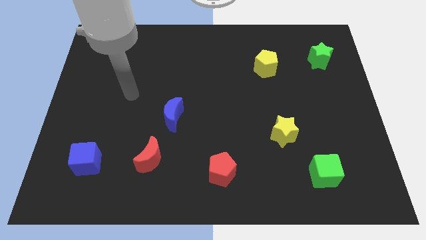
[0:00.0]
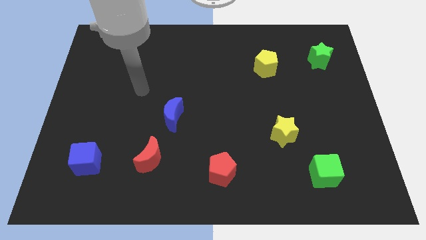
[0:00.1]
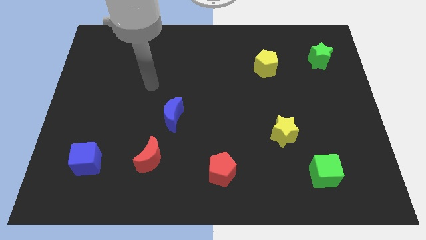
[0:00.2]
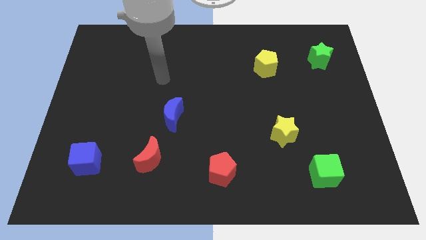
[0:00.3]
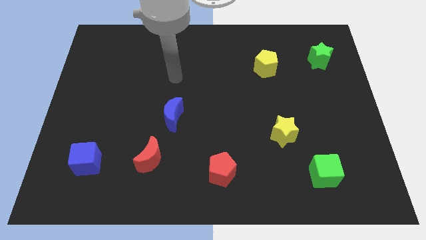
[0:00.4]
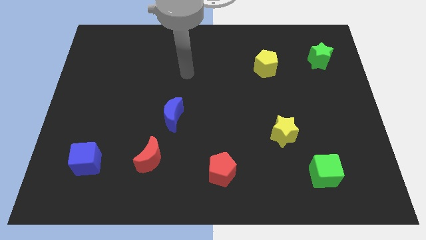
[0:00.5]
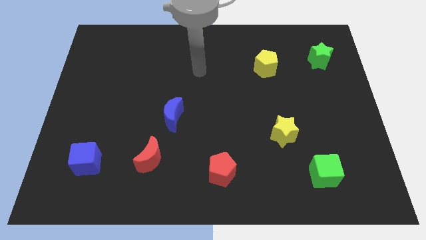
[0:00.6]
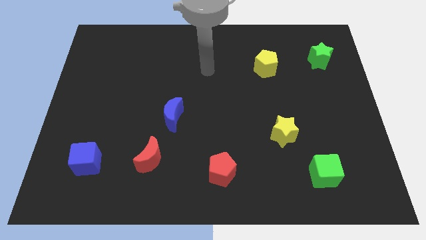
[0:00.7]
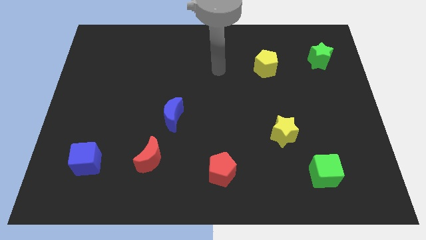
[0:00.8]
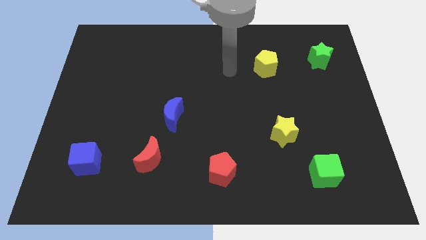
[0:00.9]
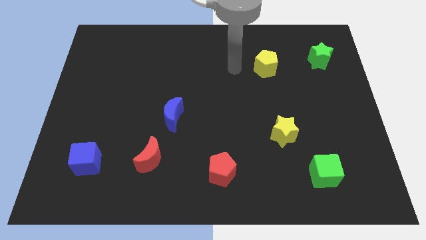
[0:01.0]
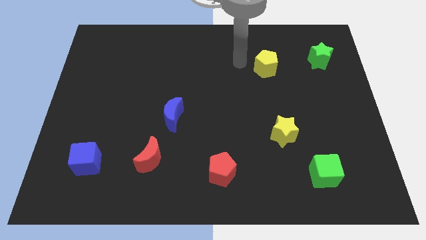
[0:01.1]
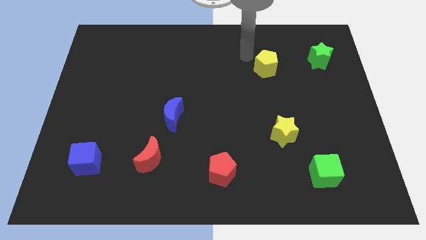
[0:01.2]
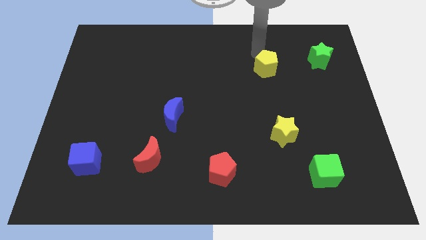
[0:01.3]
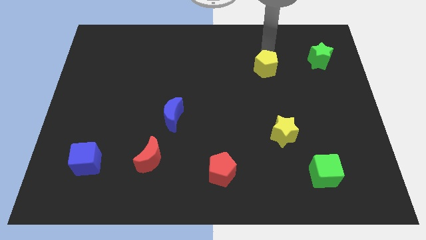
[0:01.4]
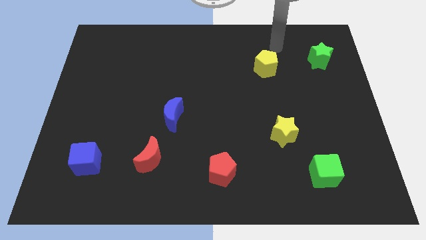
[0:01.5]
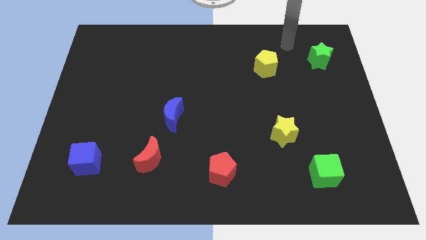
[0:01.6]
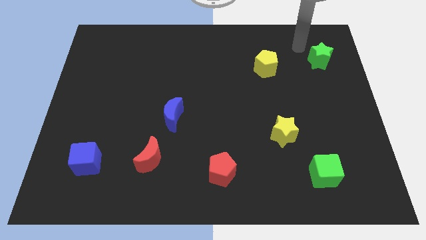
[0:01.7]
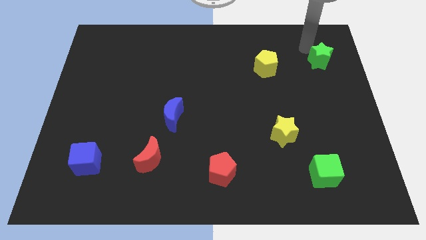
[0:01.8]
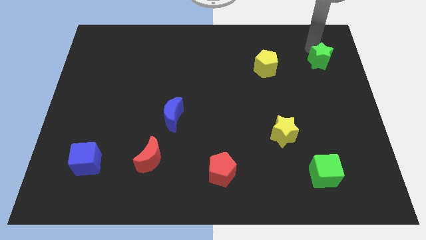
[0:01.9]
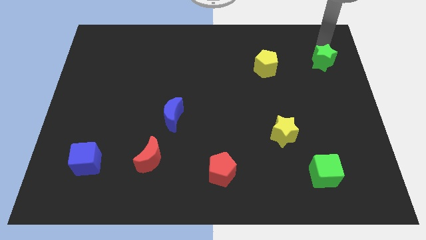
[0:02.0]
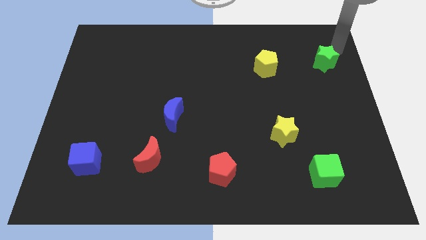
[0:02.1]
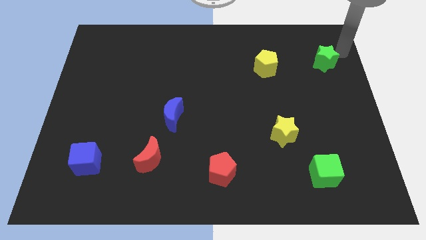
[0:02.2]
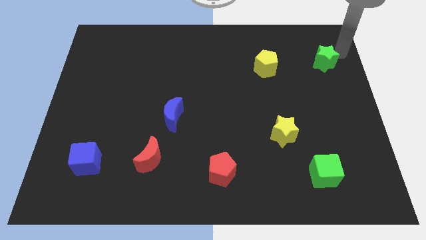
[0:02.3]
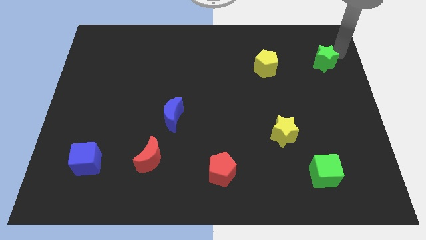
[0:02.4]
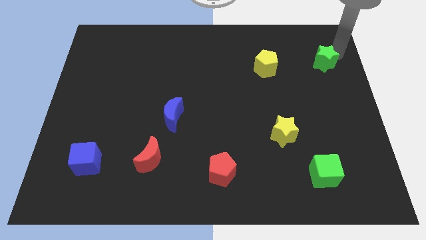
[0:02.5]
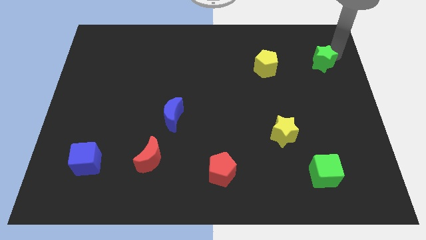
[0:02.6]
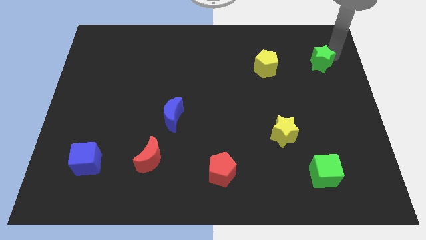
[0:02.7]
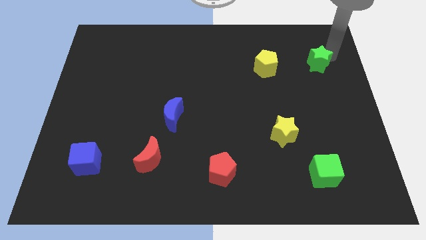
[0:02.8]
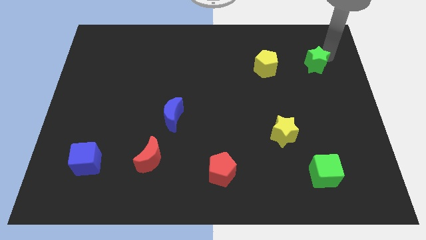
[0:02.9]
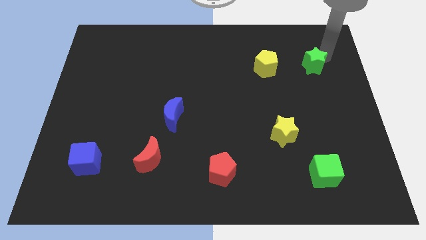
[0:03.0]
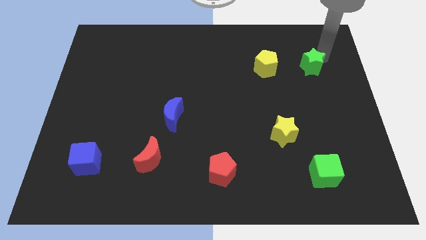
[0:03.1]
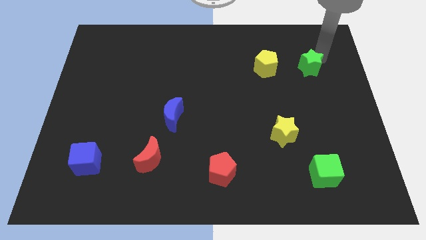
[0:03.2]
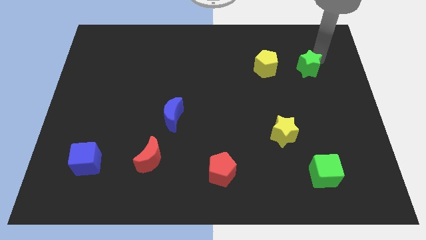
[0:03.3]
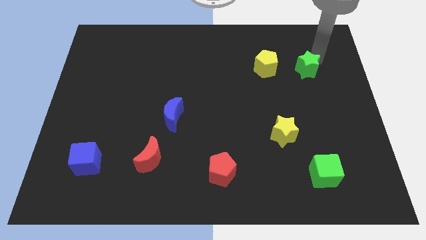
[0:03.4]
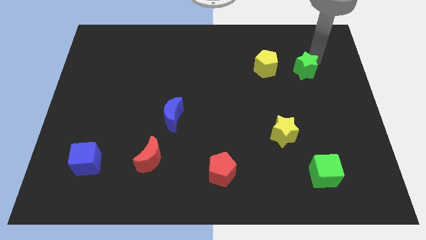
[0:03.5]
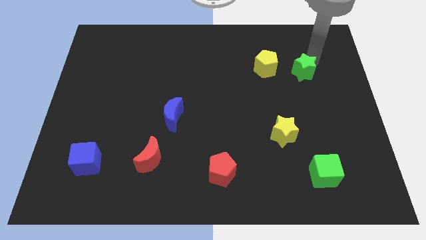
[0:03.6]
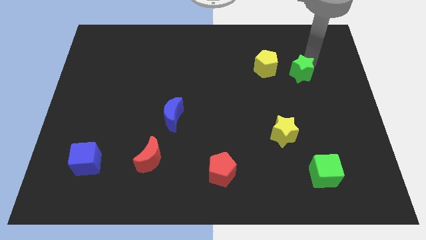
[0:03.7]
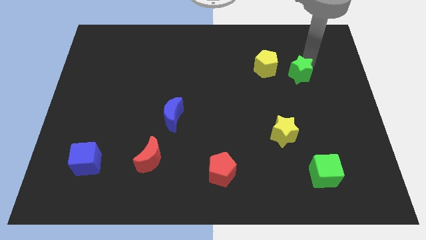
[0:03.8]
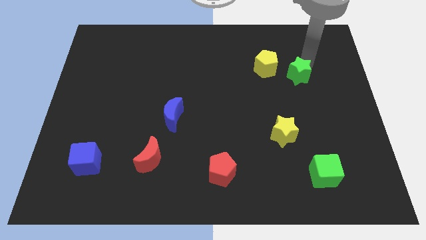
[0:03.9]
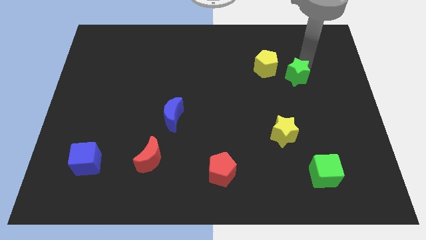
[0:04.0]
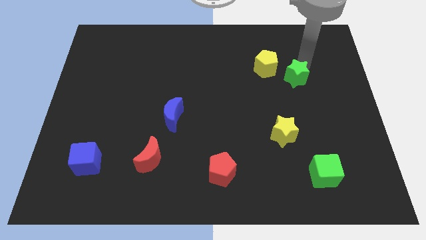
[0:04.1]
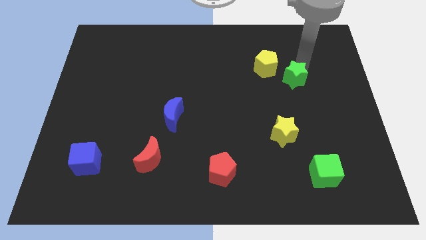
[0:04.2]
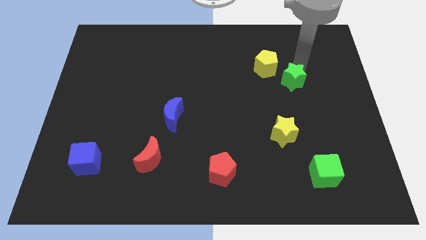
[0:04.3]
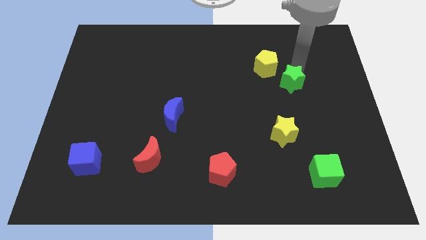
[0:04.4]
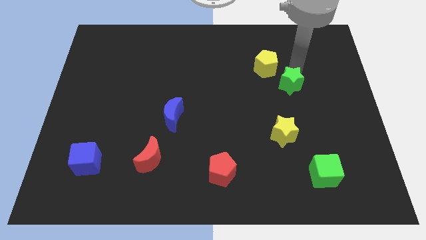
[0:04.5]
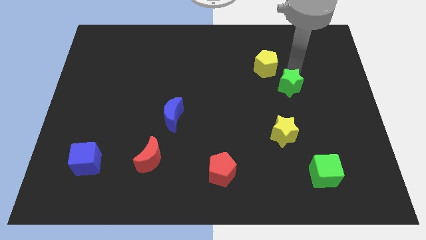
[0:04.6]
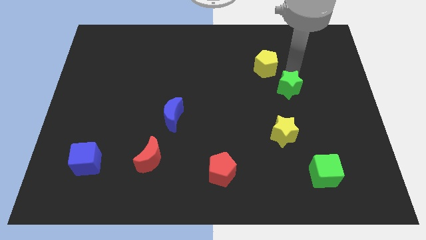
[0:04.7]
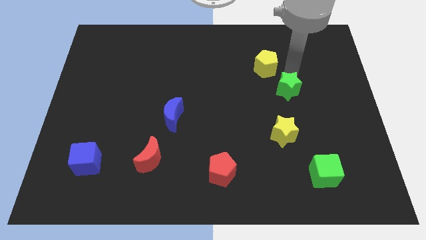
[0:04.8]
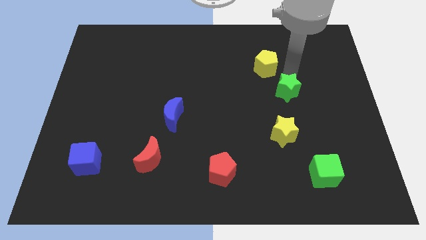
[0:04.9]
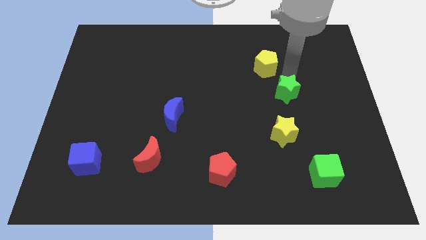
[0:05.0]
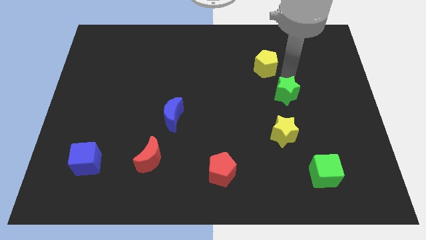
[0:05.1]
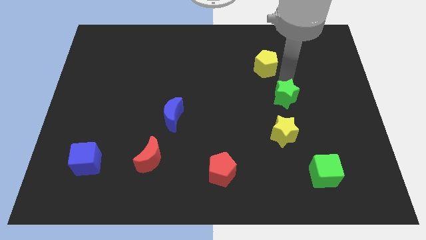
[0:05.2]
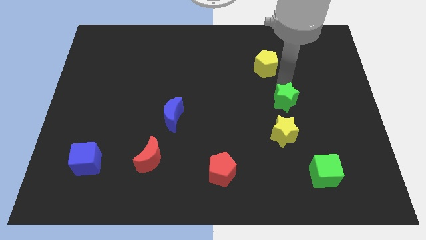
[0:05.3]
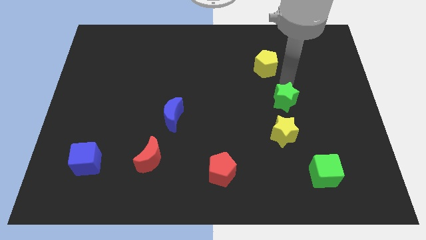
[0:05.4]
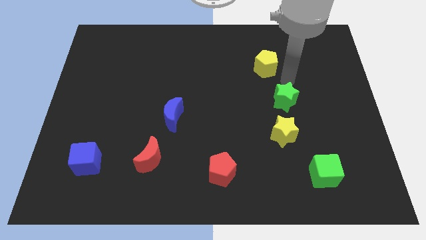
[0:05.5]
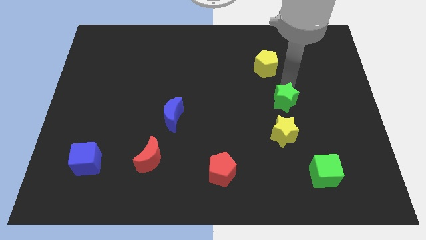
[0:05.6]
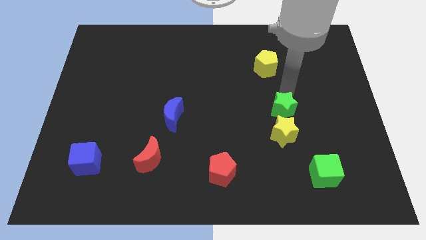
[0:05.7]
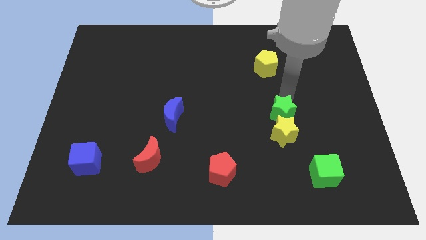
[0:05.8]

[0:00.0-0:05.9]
slide the green star next to the yellow star

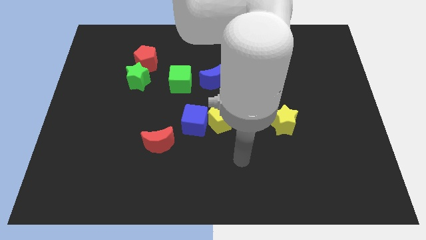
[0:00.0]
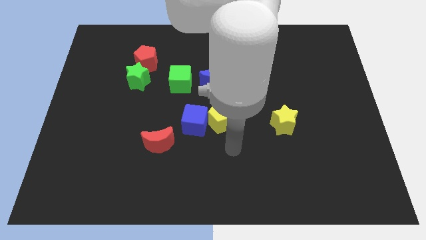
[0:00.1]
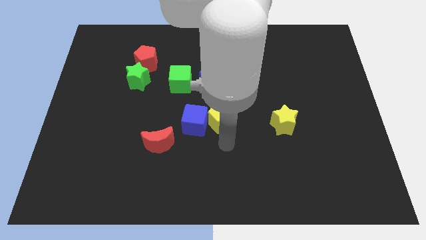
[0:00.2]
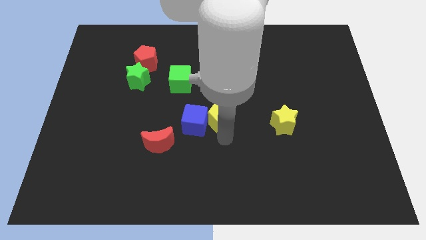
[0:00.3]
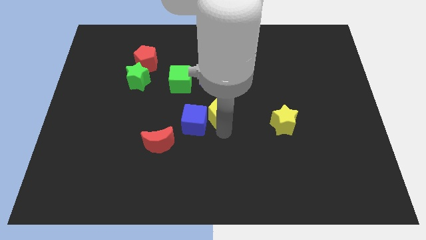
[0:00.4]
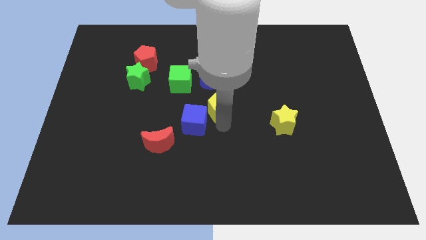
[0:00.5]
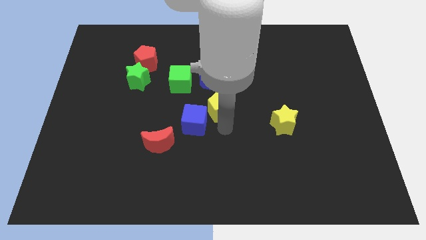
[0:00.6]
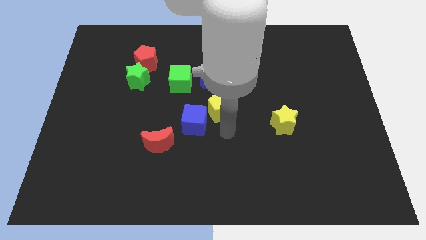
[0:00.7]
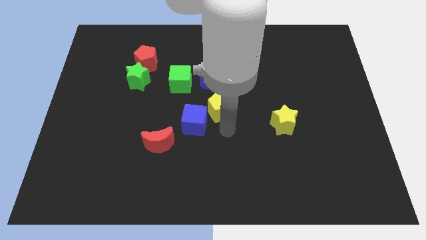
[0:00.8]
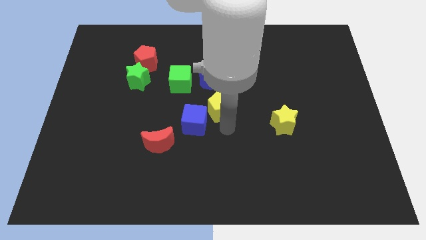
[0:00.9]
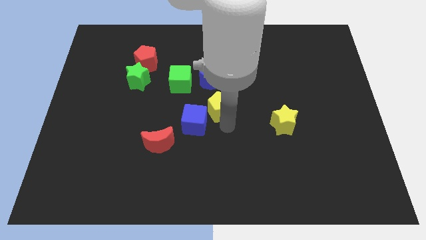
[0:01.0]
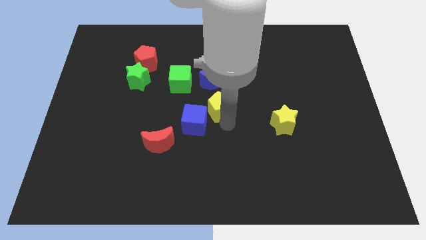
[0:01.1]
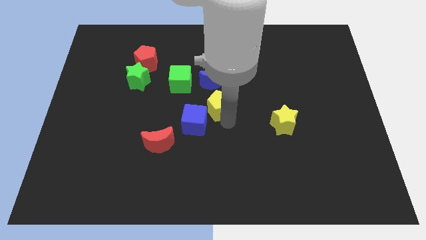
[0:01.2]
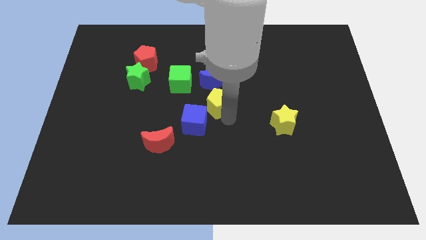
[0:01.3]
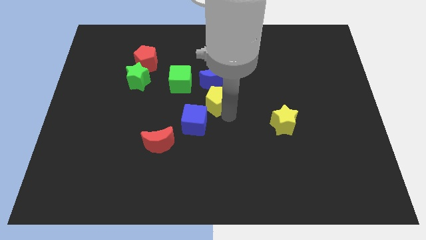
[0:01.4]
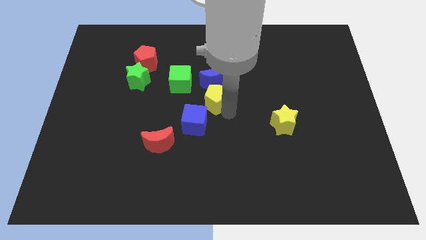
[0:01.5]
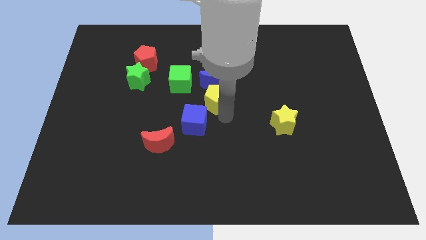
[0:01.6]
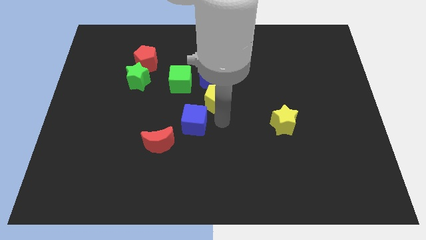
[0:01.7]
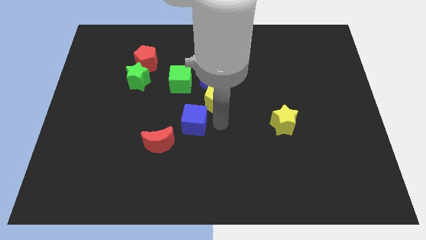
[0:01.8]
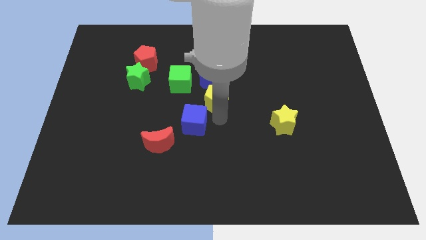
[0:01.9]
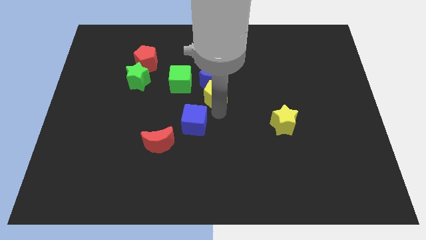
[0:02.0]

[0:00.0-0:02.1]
move the yellow pentagon towards the blue moon
